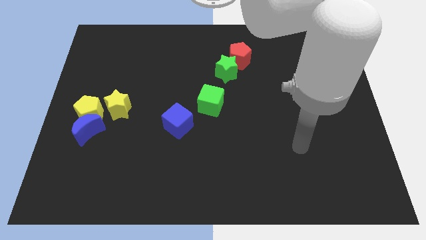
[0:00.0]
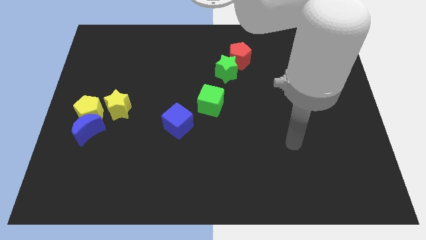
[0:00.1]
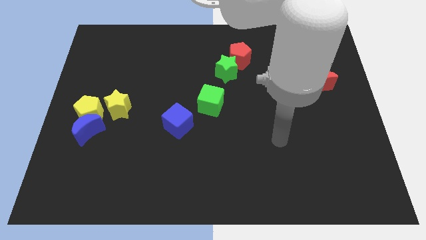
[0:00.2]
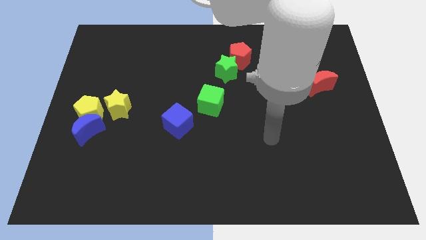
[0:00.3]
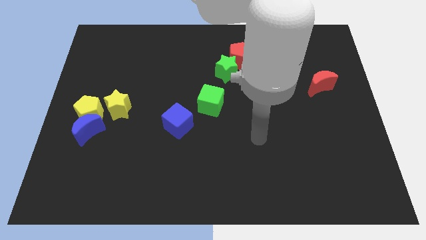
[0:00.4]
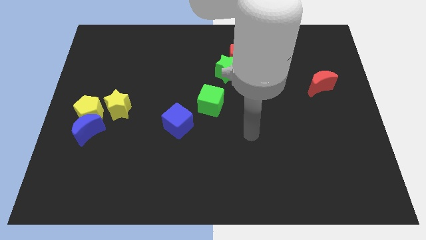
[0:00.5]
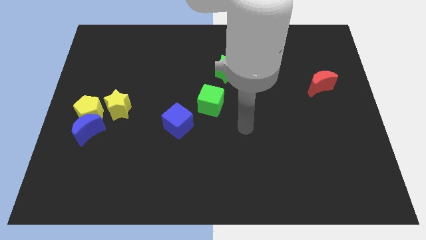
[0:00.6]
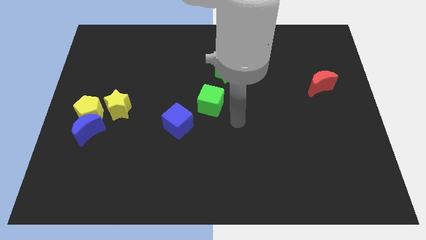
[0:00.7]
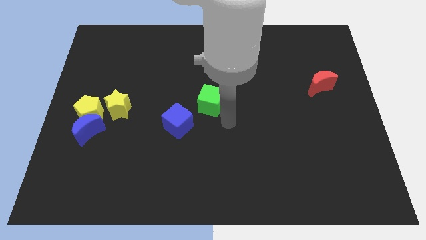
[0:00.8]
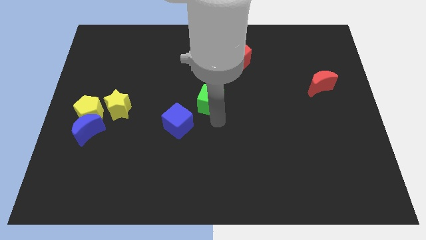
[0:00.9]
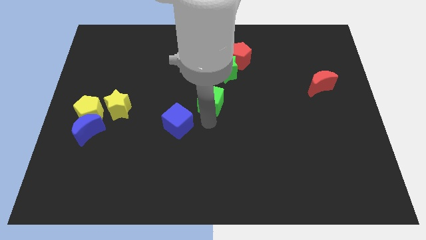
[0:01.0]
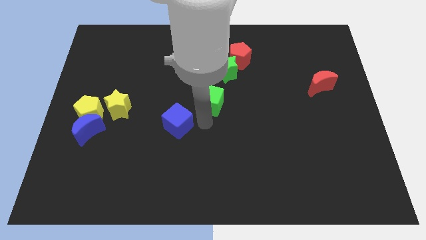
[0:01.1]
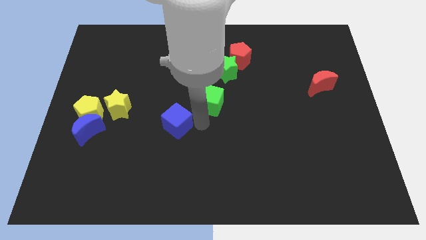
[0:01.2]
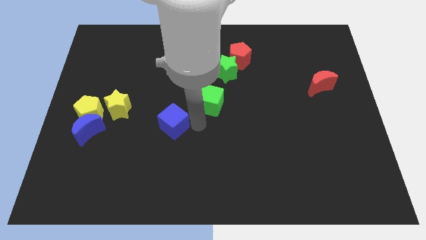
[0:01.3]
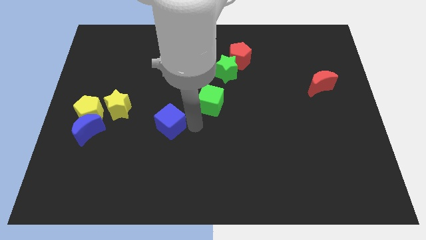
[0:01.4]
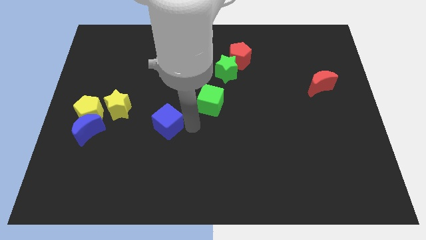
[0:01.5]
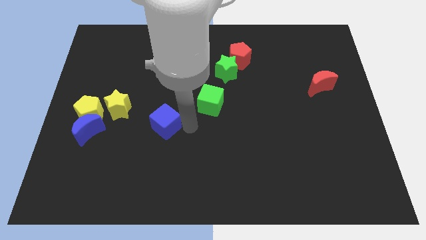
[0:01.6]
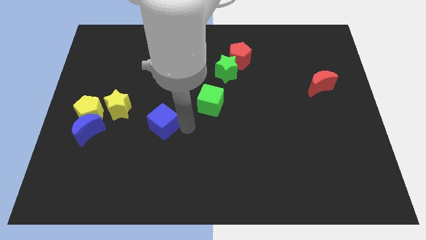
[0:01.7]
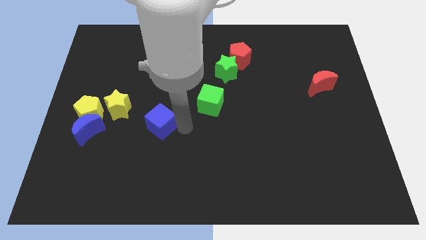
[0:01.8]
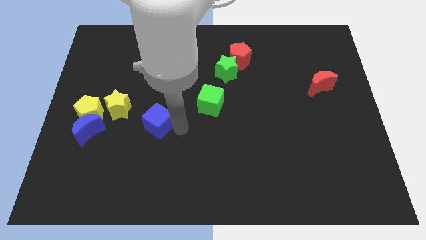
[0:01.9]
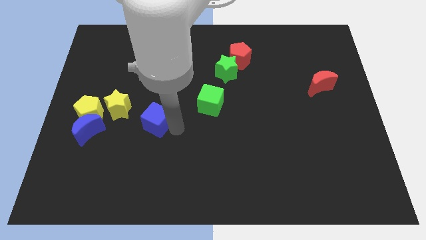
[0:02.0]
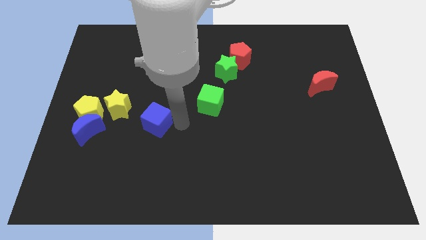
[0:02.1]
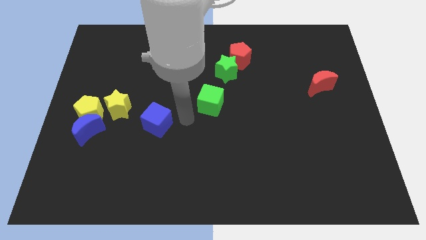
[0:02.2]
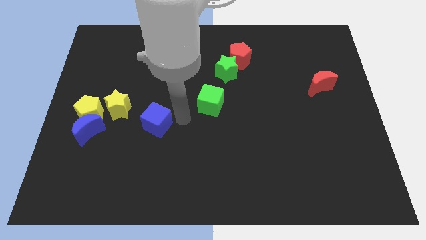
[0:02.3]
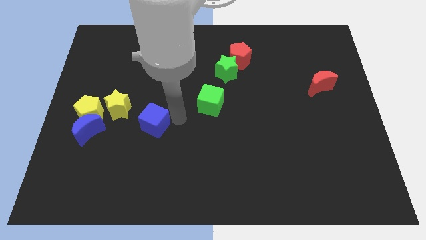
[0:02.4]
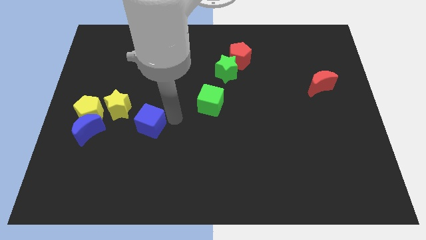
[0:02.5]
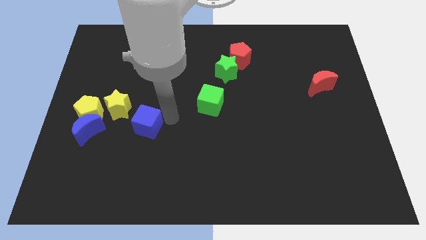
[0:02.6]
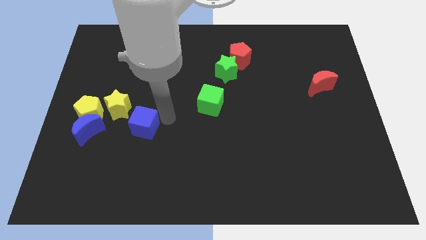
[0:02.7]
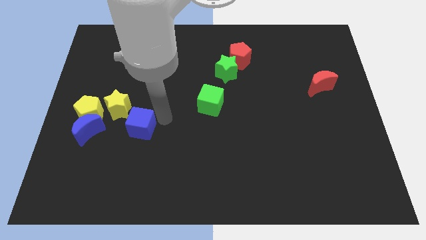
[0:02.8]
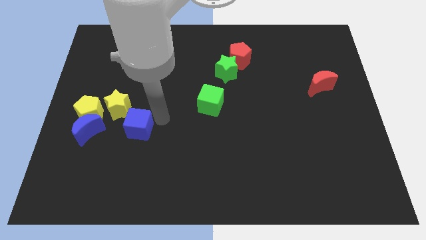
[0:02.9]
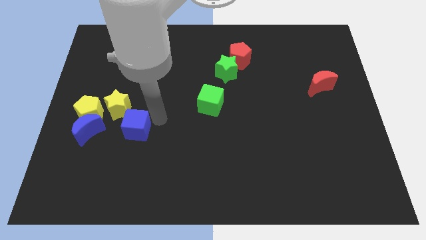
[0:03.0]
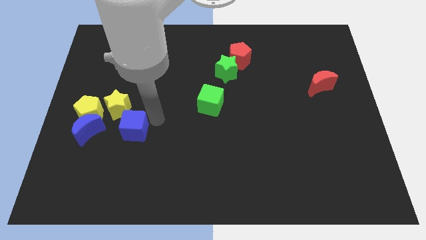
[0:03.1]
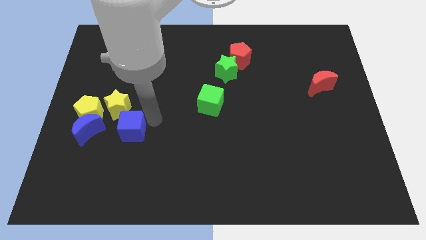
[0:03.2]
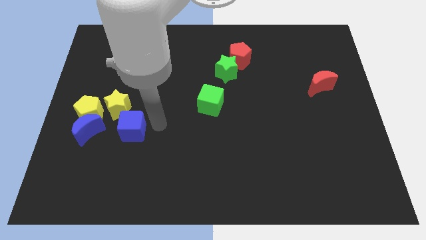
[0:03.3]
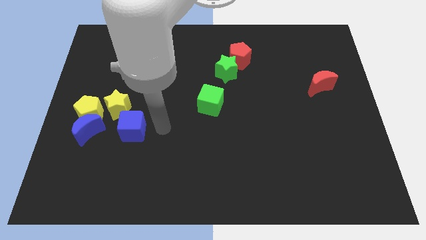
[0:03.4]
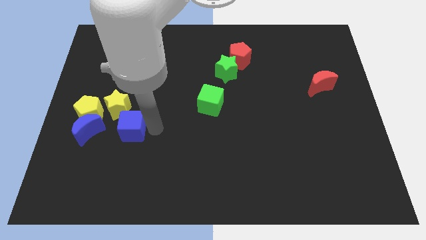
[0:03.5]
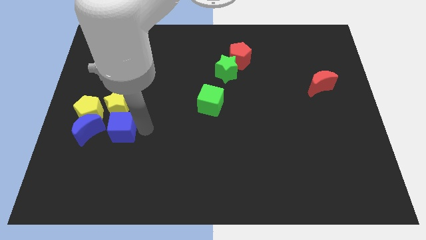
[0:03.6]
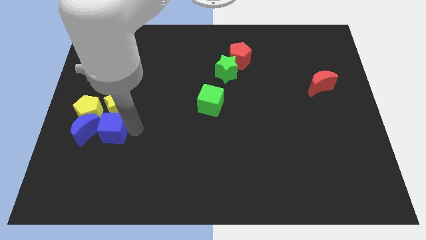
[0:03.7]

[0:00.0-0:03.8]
put the blue cube next to the blue moon

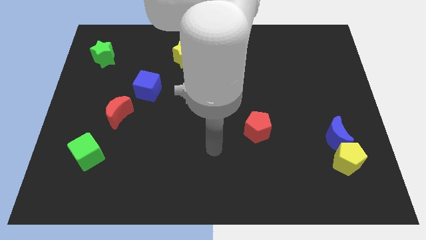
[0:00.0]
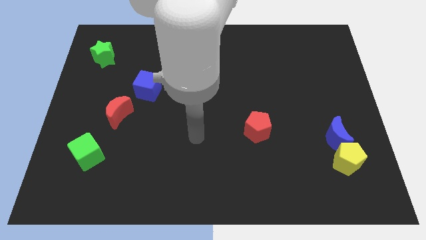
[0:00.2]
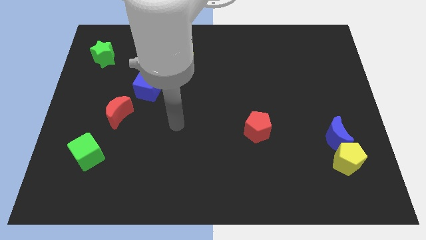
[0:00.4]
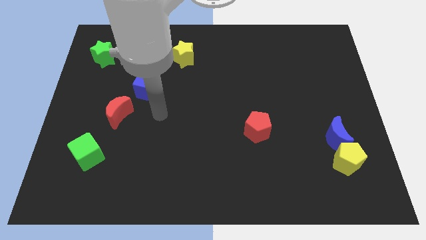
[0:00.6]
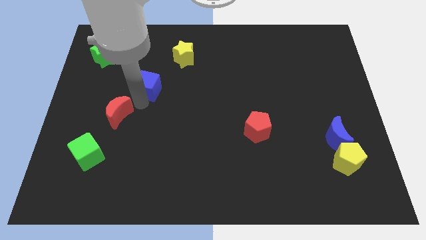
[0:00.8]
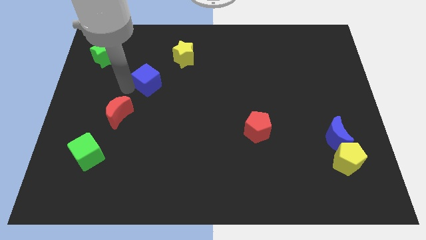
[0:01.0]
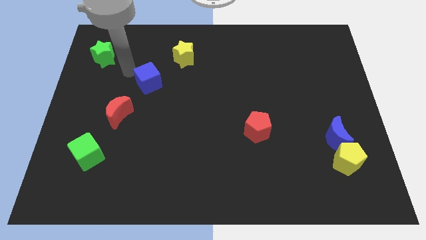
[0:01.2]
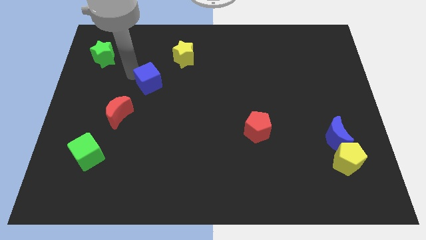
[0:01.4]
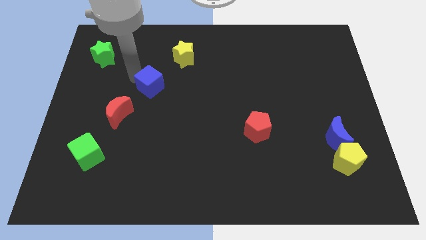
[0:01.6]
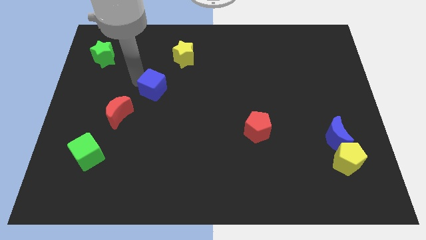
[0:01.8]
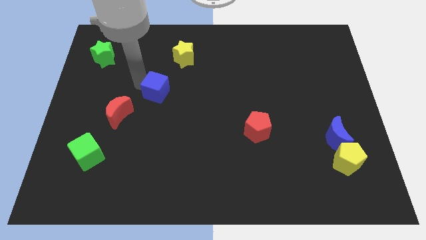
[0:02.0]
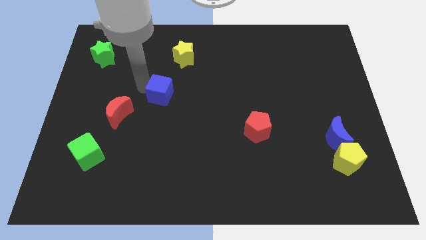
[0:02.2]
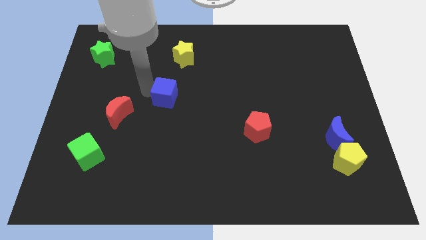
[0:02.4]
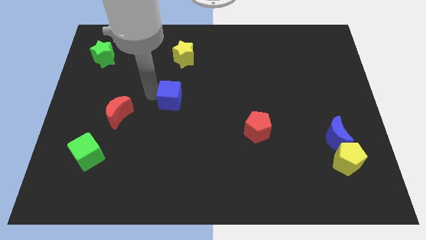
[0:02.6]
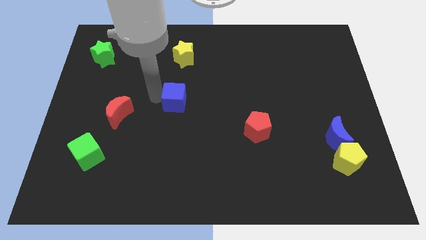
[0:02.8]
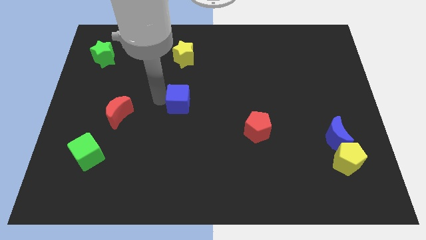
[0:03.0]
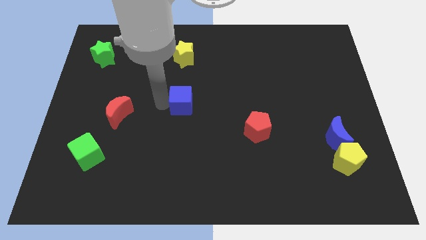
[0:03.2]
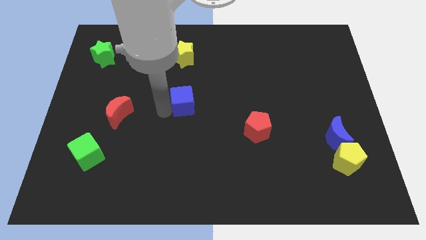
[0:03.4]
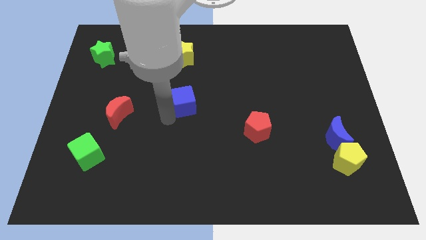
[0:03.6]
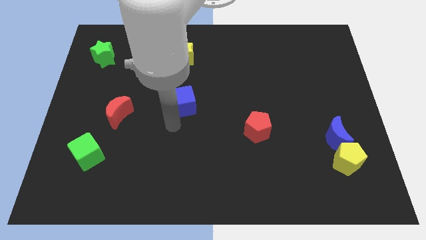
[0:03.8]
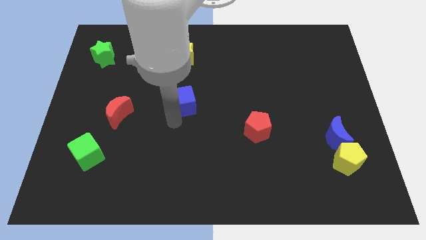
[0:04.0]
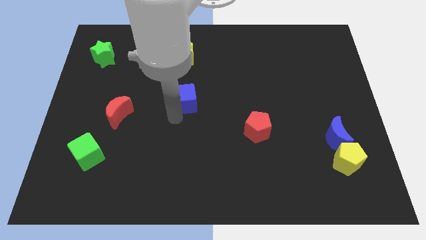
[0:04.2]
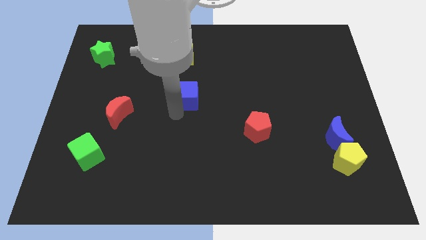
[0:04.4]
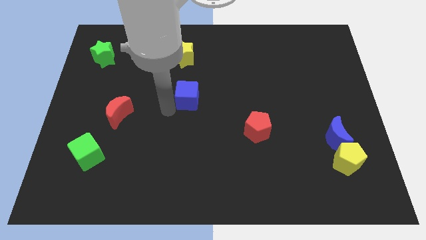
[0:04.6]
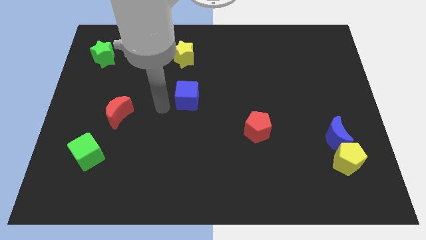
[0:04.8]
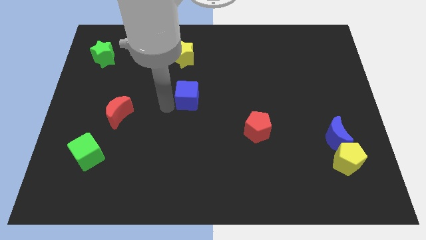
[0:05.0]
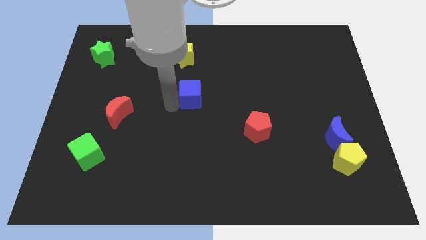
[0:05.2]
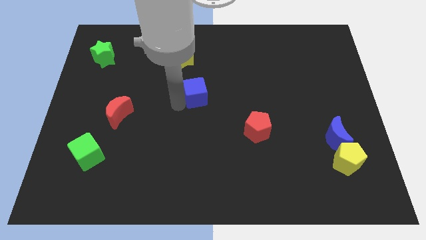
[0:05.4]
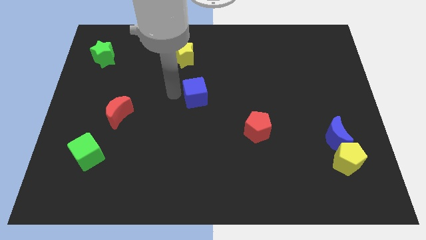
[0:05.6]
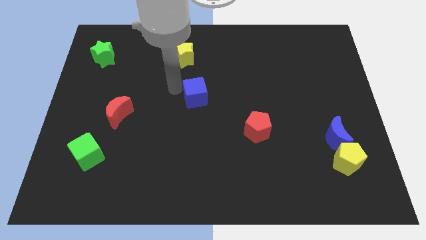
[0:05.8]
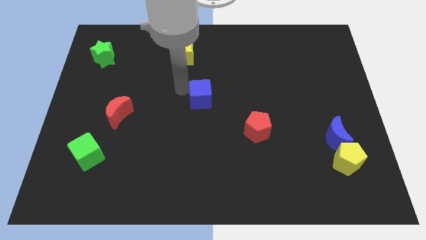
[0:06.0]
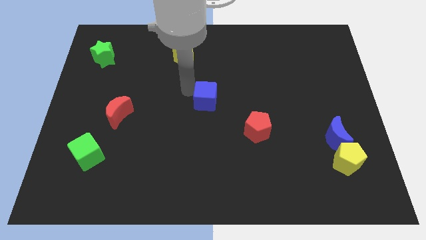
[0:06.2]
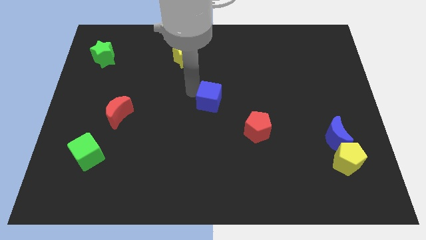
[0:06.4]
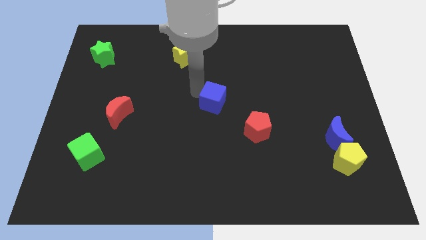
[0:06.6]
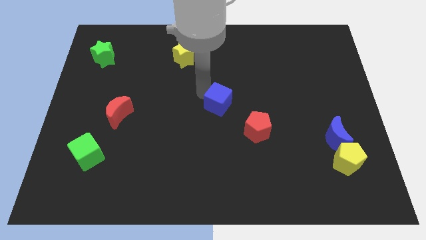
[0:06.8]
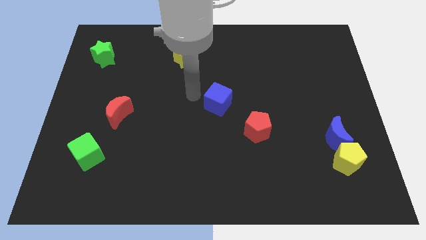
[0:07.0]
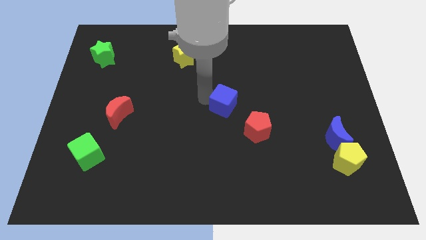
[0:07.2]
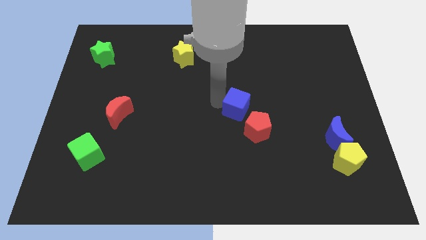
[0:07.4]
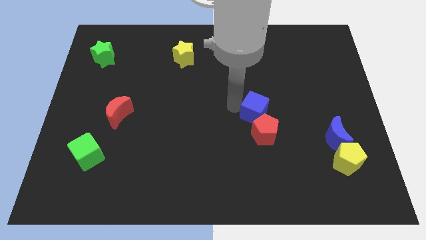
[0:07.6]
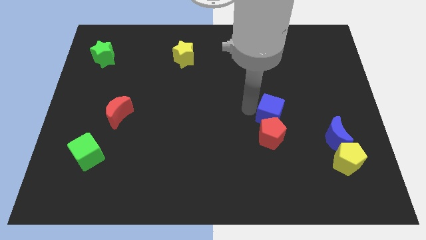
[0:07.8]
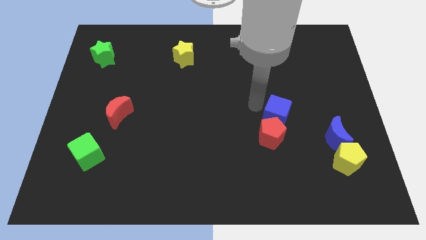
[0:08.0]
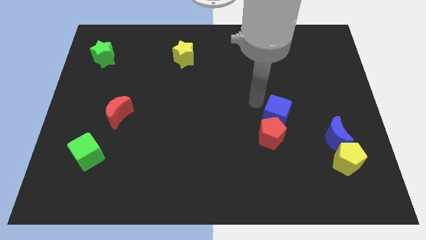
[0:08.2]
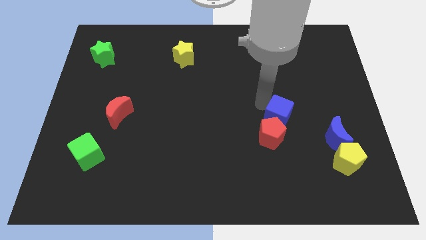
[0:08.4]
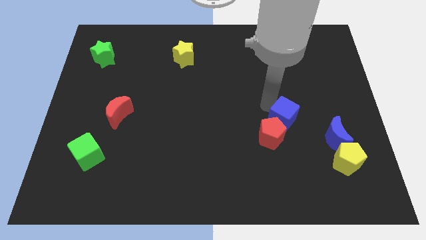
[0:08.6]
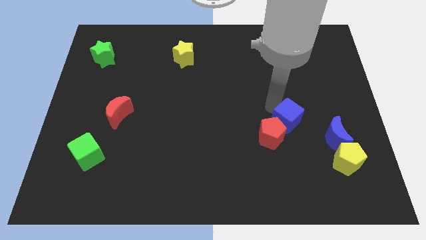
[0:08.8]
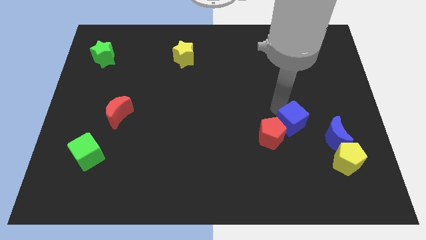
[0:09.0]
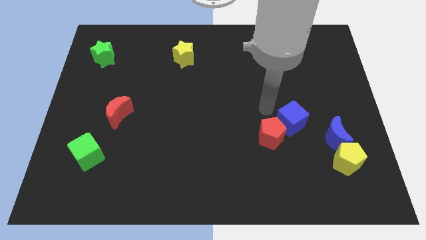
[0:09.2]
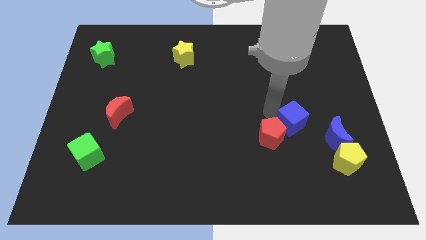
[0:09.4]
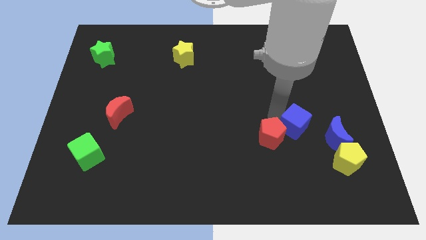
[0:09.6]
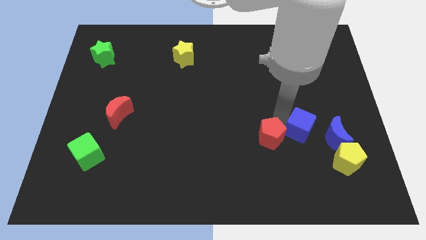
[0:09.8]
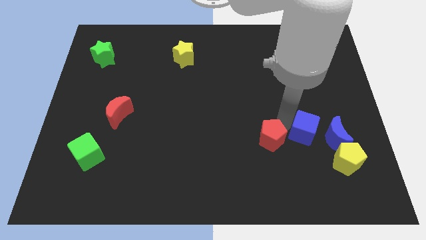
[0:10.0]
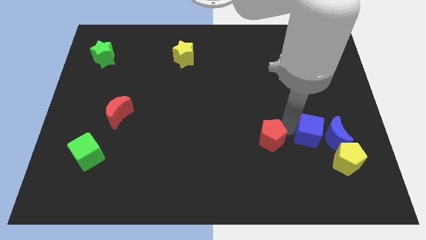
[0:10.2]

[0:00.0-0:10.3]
put the blue cube to the blue moon
